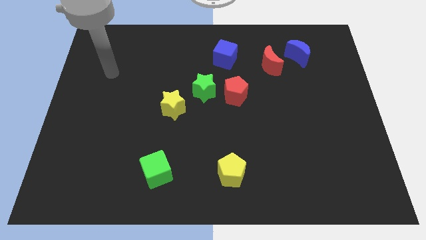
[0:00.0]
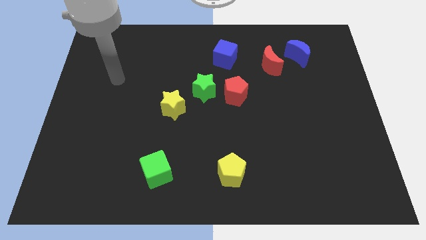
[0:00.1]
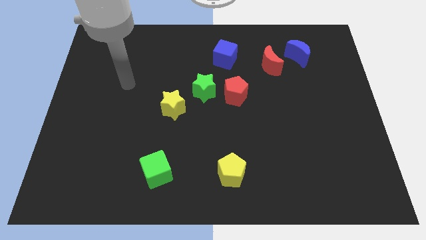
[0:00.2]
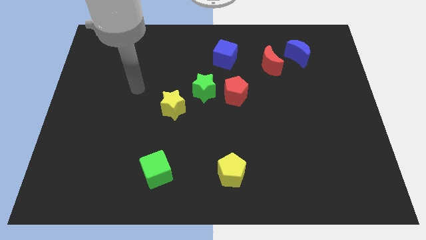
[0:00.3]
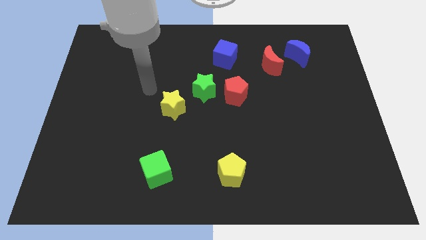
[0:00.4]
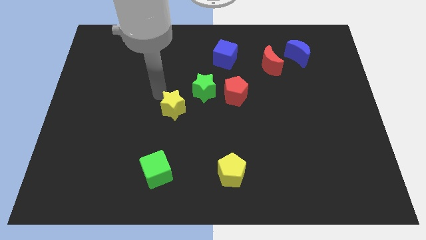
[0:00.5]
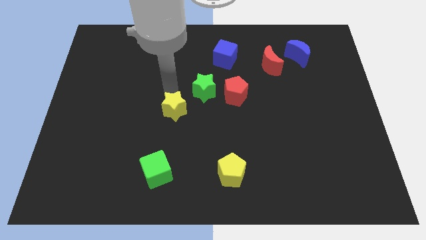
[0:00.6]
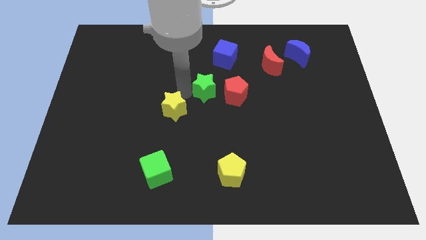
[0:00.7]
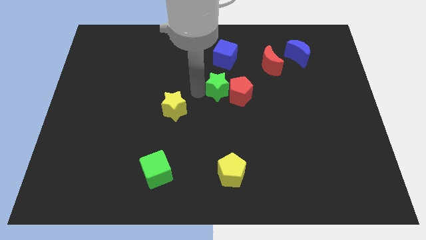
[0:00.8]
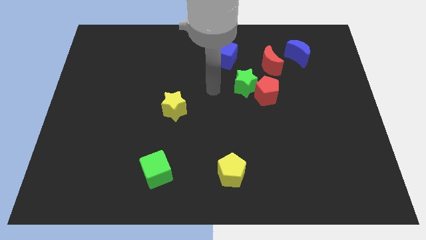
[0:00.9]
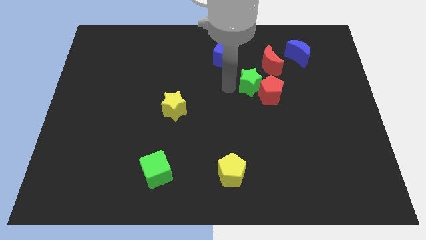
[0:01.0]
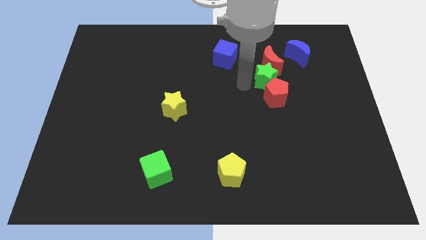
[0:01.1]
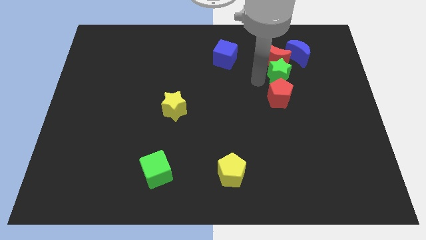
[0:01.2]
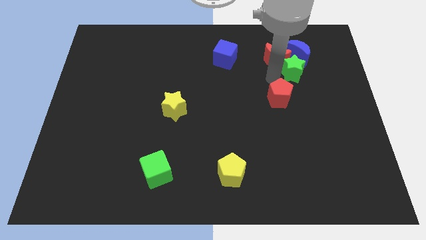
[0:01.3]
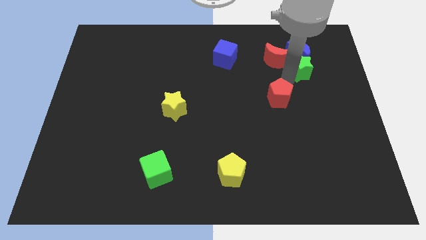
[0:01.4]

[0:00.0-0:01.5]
pull the red pentagon apart from the green star

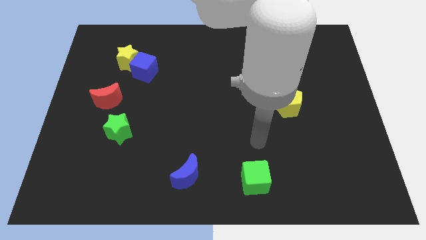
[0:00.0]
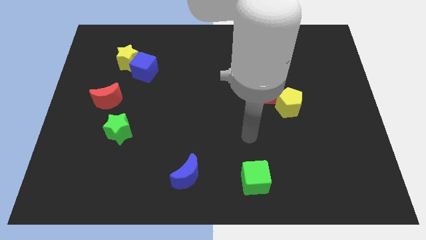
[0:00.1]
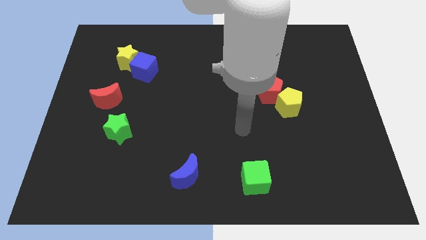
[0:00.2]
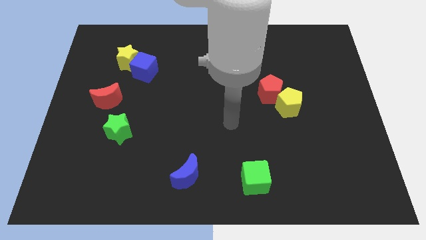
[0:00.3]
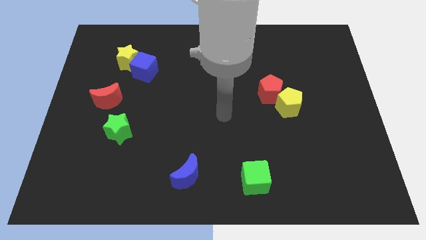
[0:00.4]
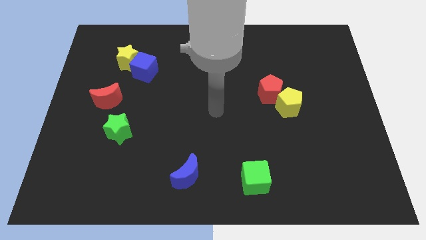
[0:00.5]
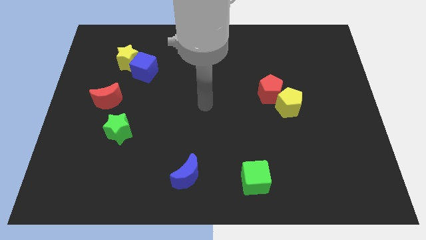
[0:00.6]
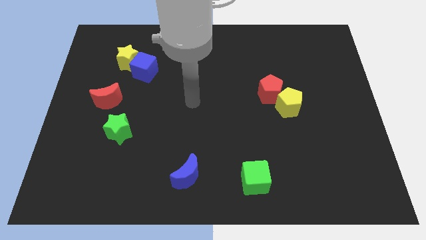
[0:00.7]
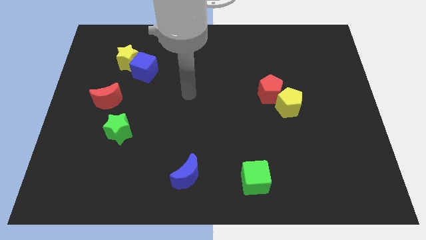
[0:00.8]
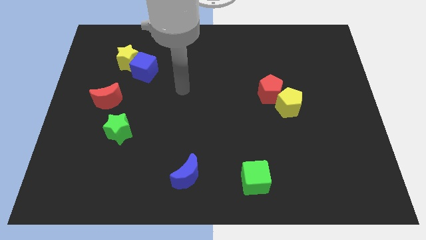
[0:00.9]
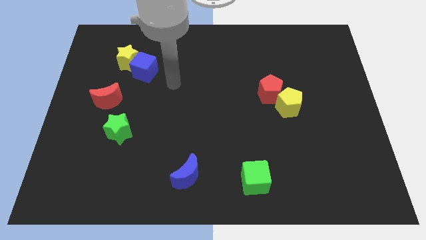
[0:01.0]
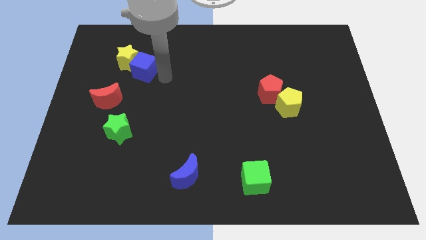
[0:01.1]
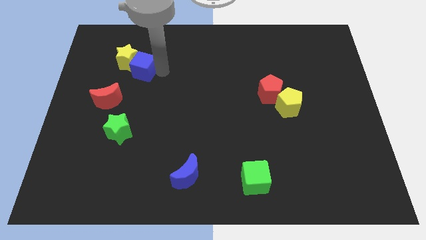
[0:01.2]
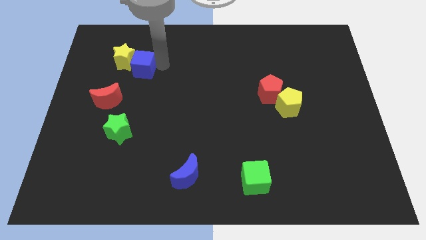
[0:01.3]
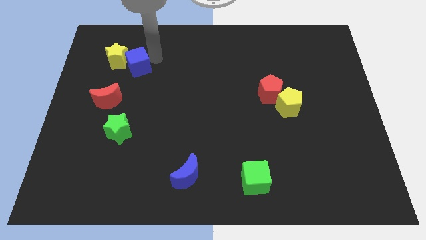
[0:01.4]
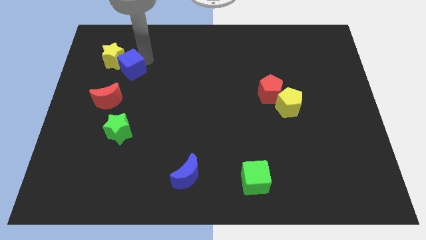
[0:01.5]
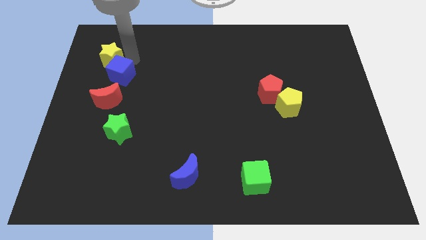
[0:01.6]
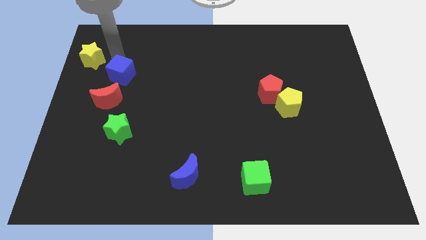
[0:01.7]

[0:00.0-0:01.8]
move the blue cube away from the yellow star

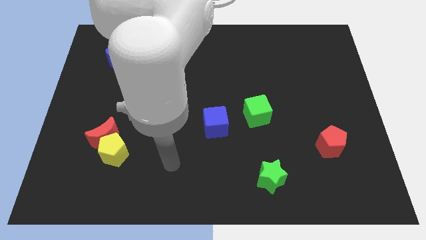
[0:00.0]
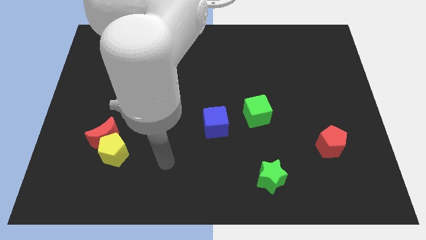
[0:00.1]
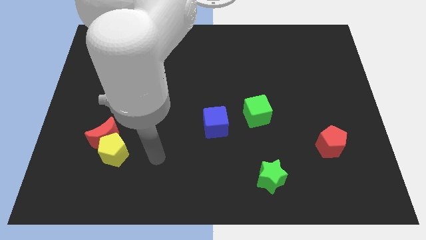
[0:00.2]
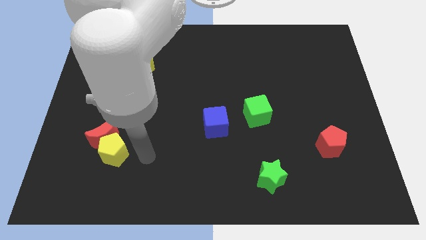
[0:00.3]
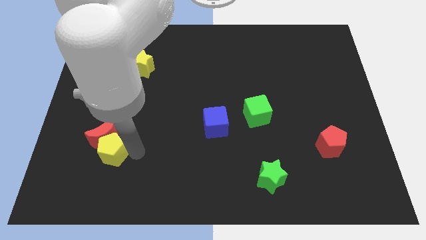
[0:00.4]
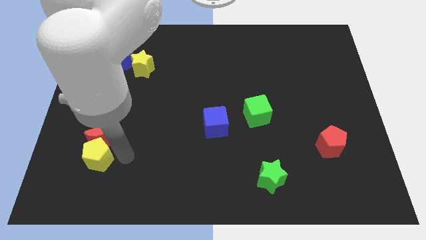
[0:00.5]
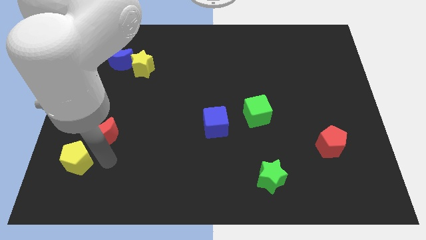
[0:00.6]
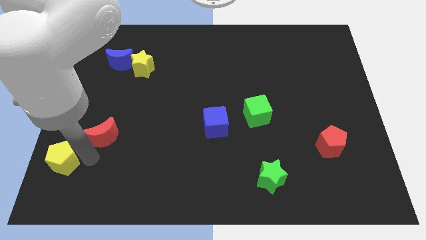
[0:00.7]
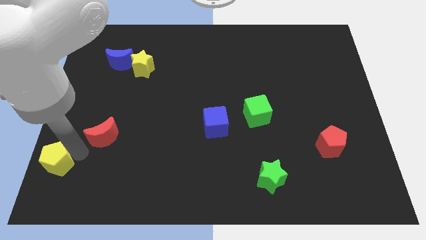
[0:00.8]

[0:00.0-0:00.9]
pull the red moon apart from the yellow pentagon

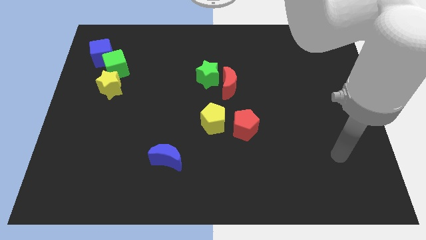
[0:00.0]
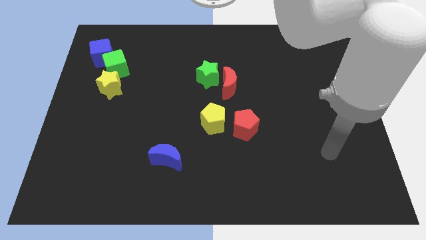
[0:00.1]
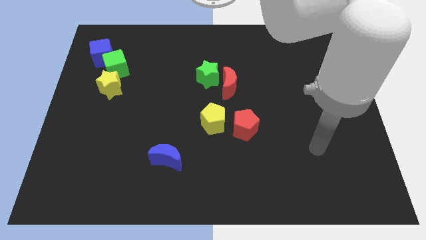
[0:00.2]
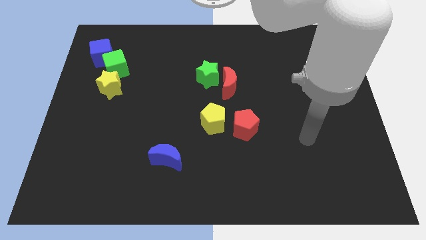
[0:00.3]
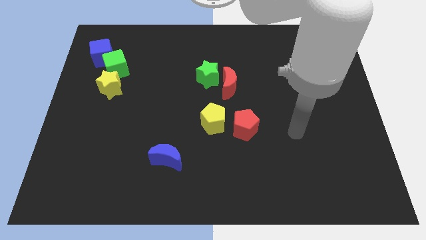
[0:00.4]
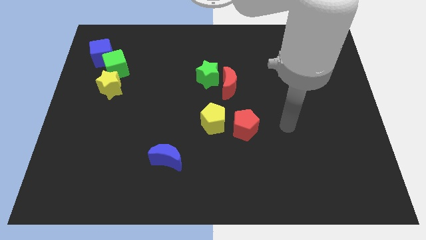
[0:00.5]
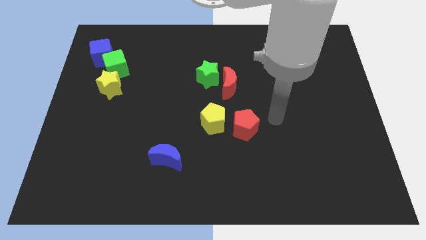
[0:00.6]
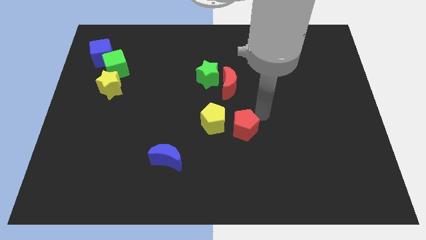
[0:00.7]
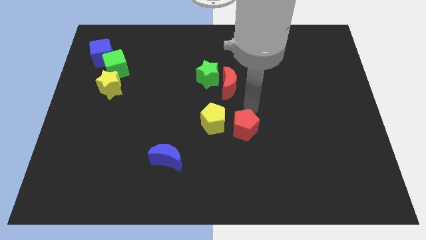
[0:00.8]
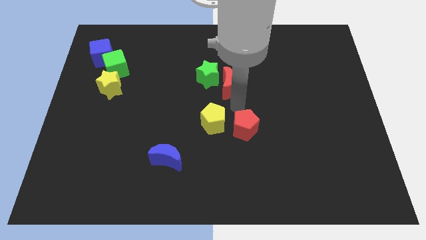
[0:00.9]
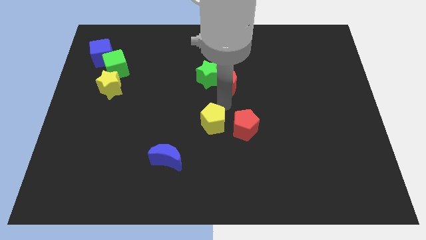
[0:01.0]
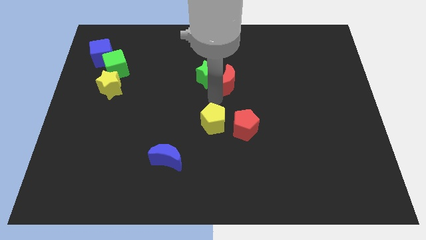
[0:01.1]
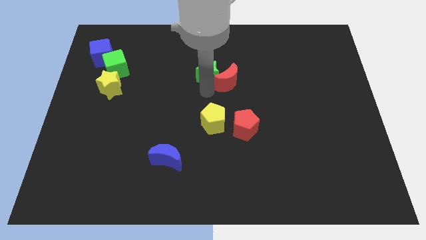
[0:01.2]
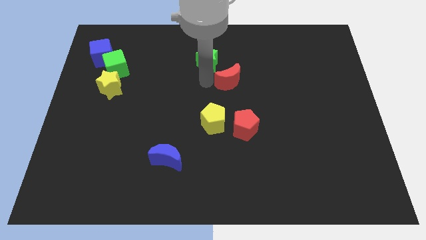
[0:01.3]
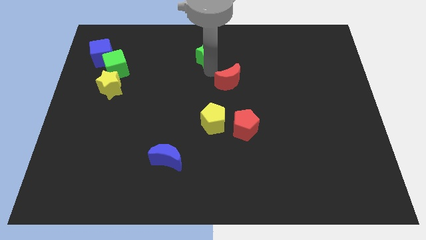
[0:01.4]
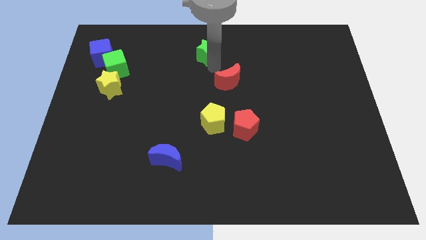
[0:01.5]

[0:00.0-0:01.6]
move the red moon away from the green star

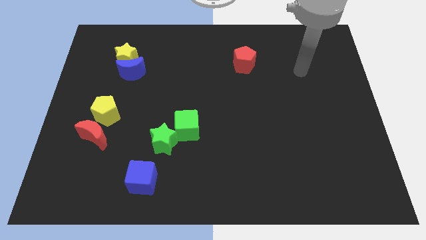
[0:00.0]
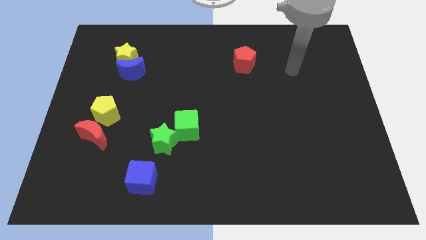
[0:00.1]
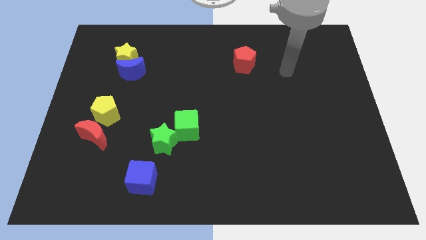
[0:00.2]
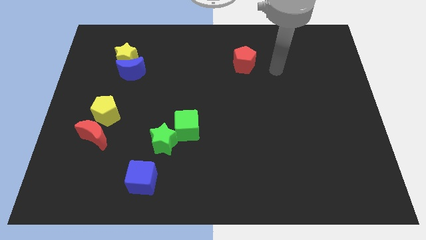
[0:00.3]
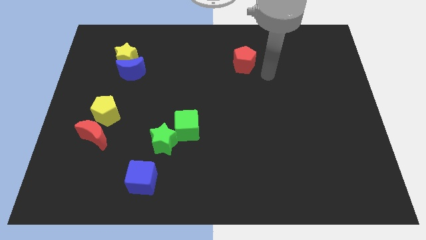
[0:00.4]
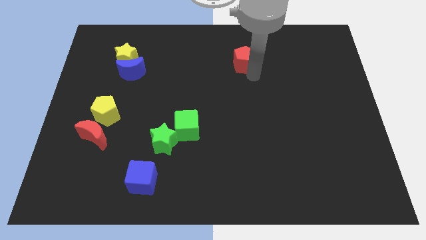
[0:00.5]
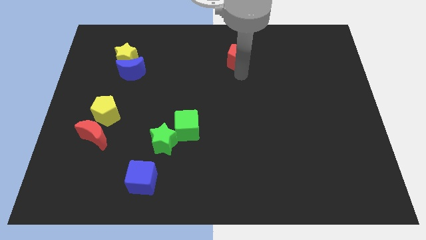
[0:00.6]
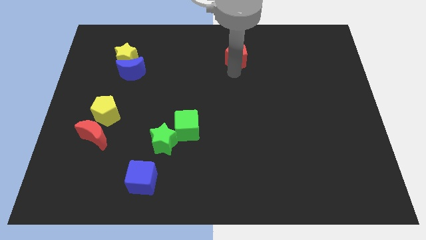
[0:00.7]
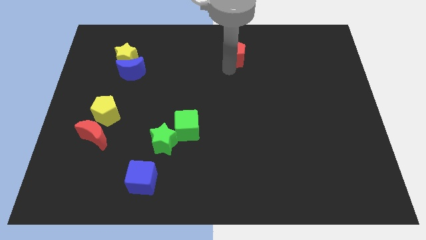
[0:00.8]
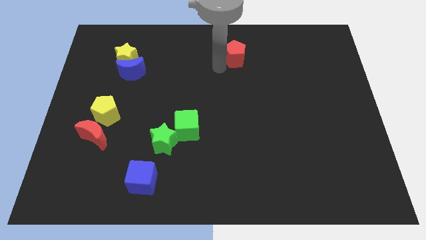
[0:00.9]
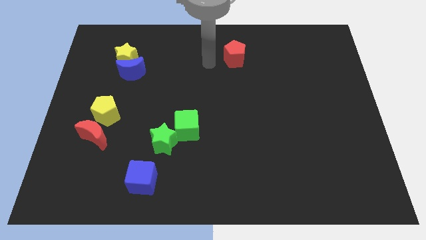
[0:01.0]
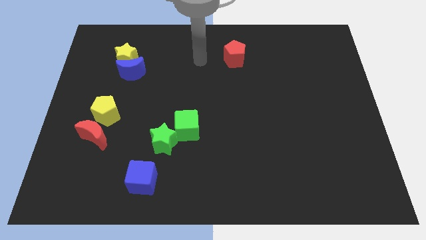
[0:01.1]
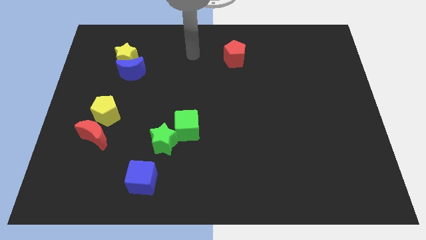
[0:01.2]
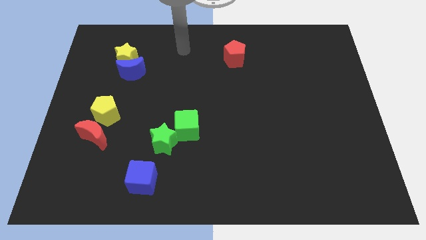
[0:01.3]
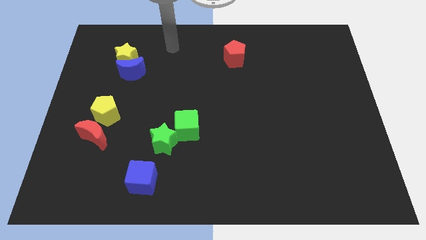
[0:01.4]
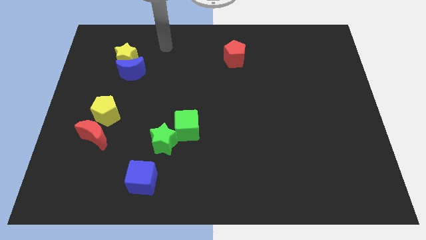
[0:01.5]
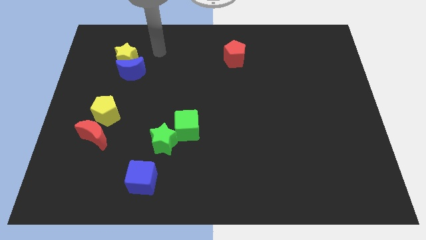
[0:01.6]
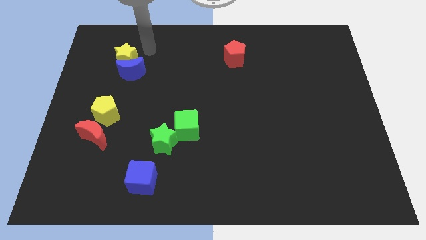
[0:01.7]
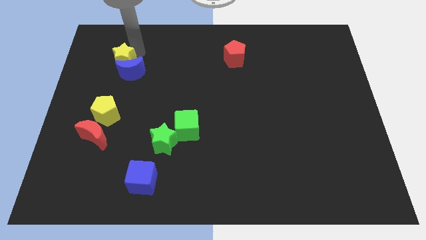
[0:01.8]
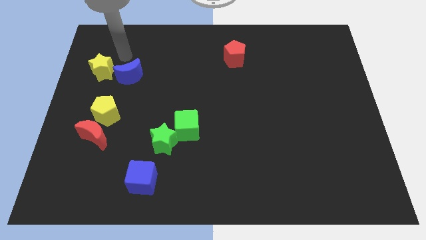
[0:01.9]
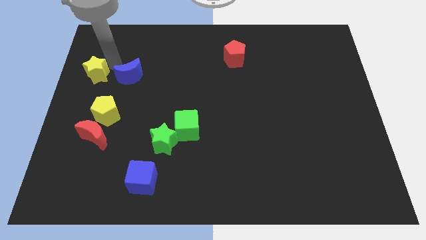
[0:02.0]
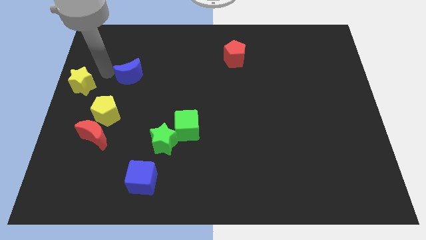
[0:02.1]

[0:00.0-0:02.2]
separate the blue moon from the yellow star

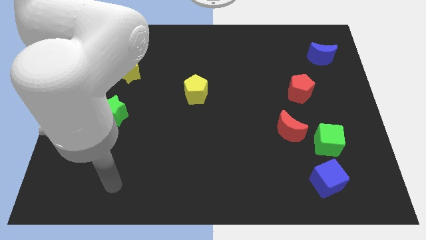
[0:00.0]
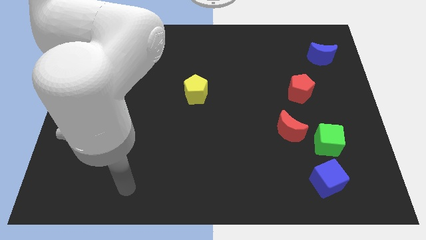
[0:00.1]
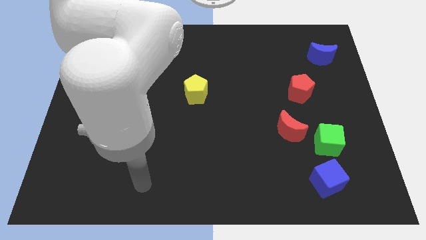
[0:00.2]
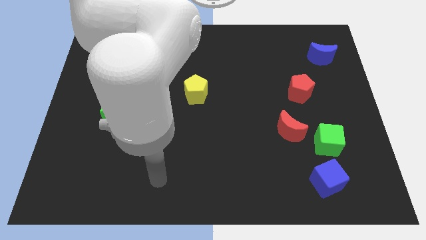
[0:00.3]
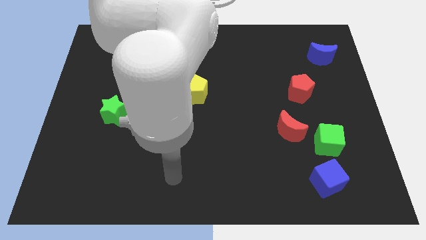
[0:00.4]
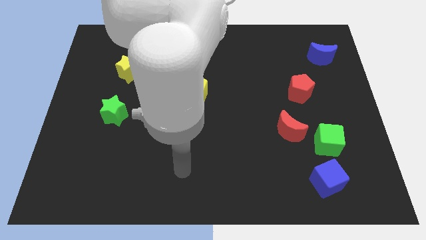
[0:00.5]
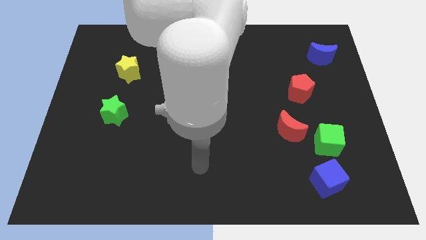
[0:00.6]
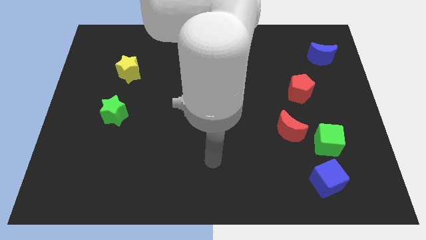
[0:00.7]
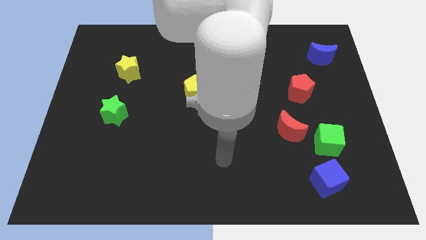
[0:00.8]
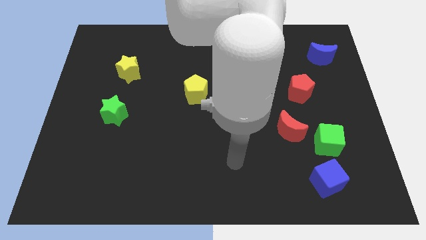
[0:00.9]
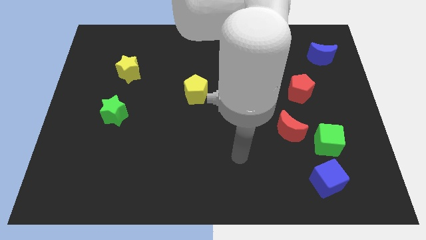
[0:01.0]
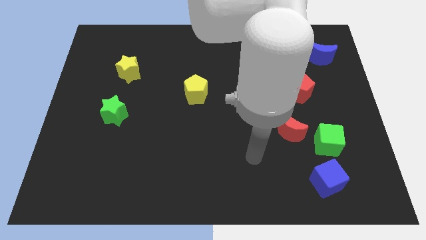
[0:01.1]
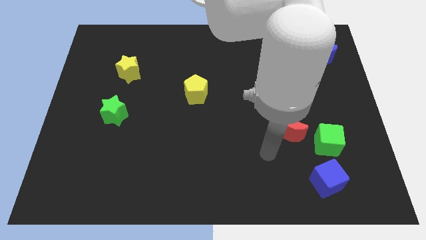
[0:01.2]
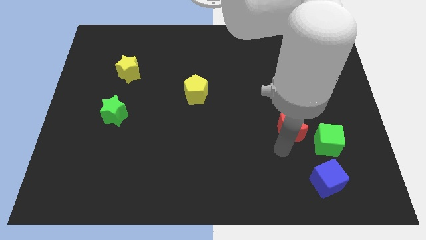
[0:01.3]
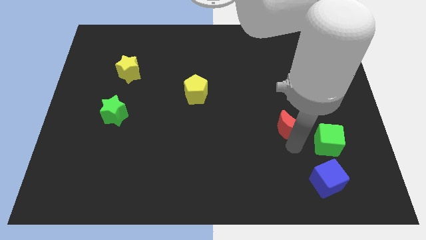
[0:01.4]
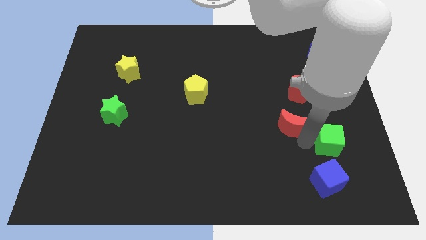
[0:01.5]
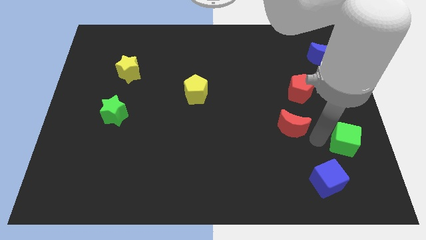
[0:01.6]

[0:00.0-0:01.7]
separate the red moon from the green cube
